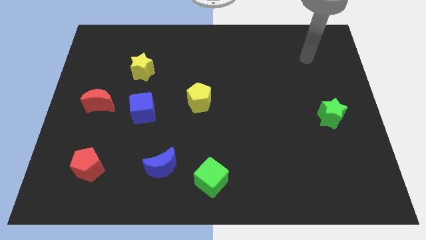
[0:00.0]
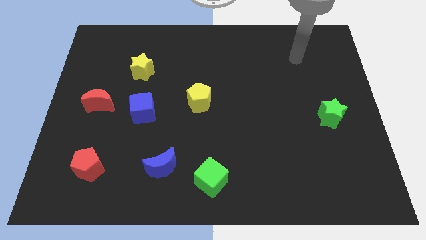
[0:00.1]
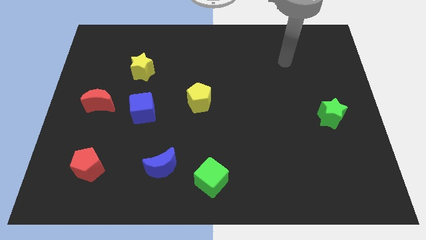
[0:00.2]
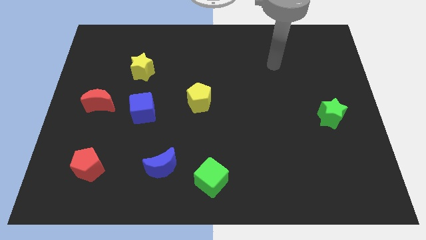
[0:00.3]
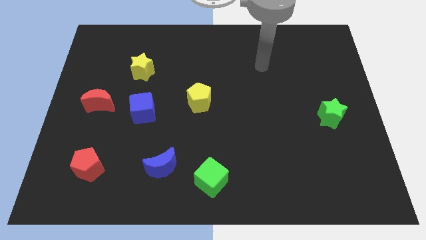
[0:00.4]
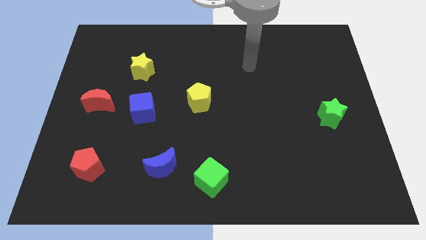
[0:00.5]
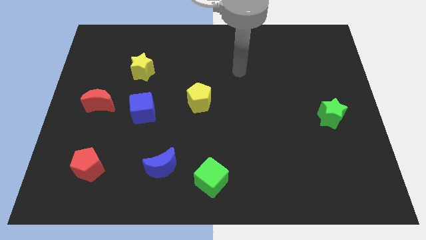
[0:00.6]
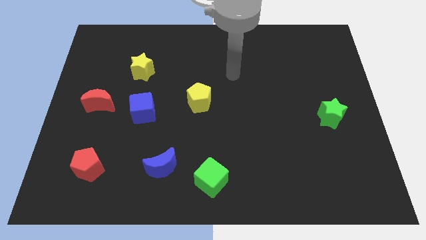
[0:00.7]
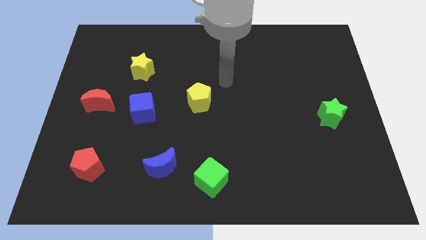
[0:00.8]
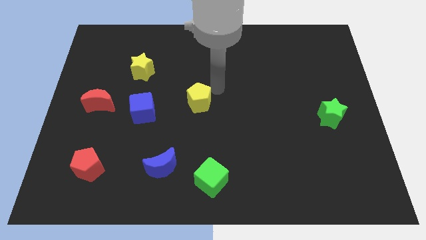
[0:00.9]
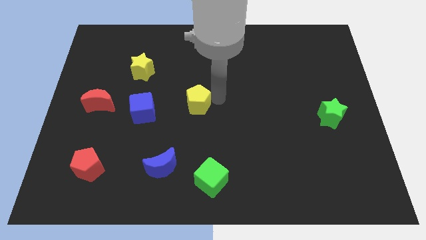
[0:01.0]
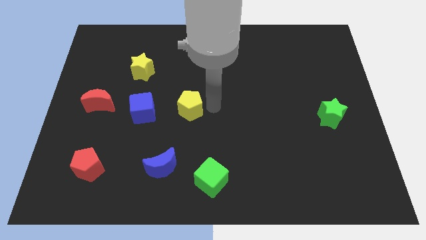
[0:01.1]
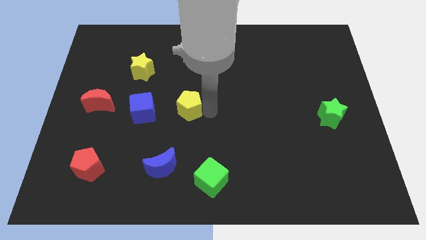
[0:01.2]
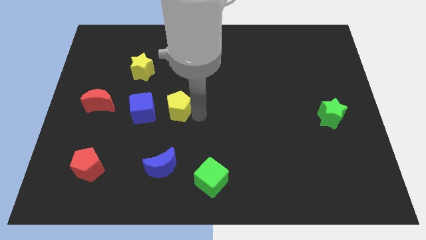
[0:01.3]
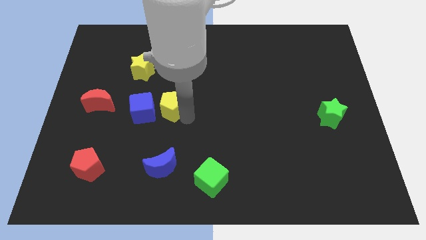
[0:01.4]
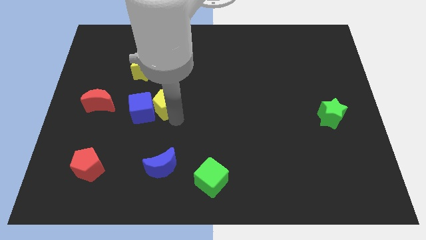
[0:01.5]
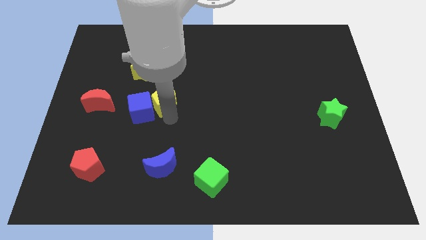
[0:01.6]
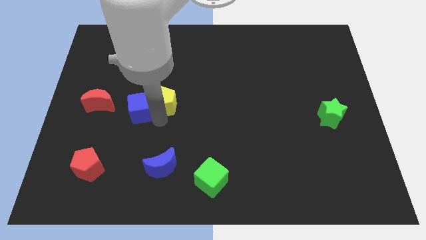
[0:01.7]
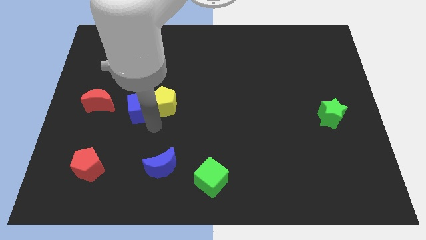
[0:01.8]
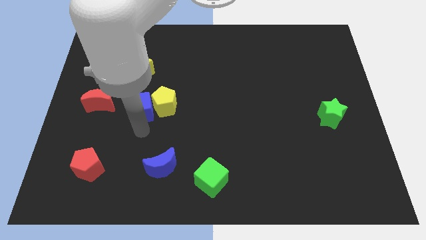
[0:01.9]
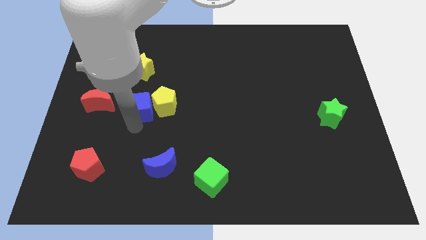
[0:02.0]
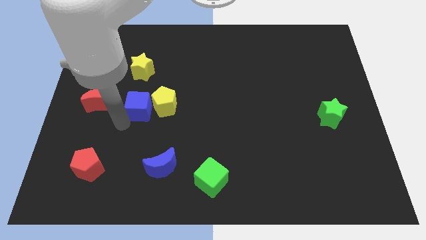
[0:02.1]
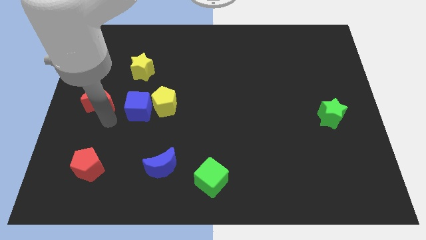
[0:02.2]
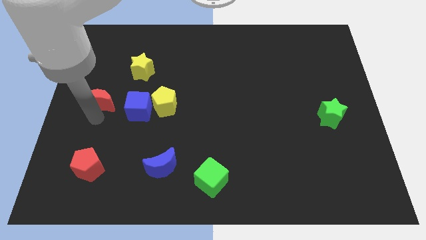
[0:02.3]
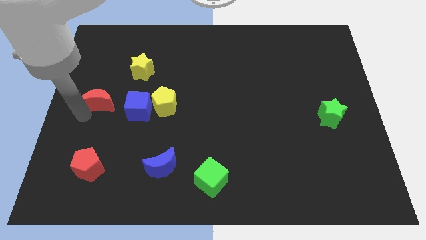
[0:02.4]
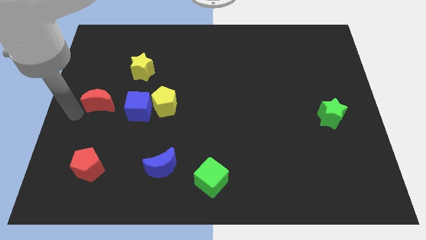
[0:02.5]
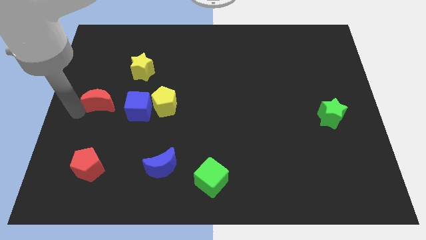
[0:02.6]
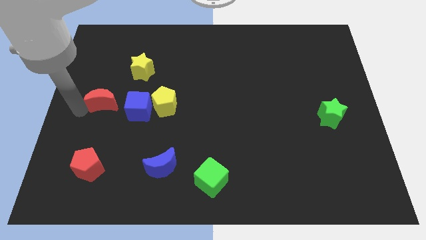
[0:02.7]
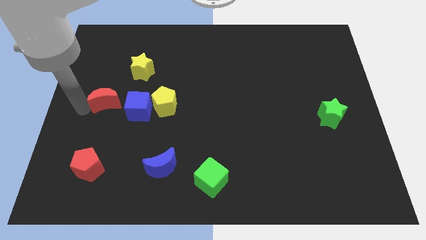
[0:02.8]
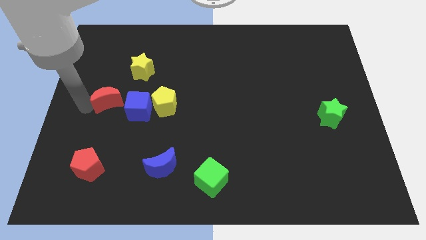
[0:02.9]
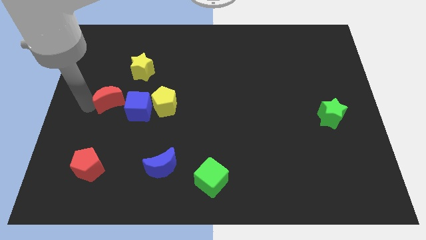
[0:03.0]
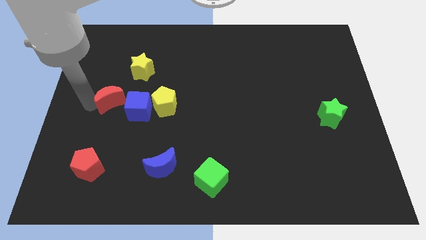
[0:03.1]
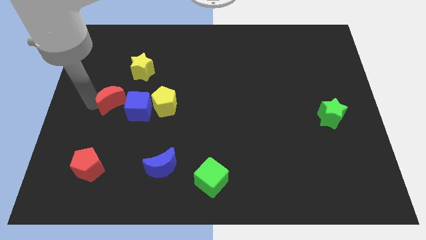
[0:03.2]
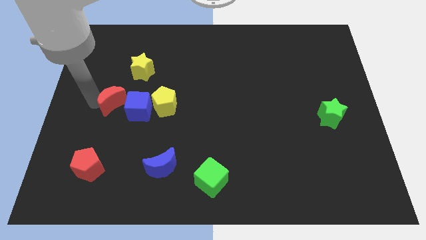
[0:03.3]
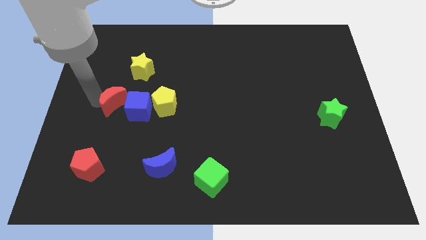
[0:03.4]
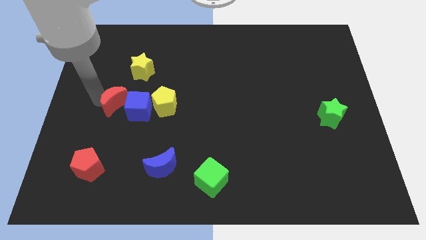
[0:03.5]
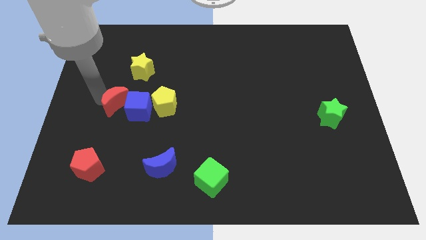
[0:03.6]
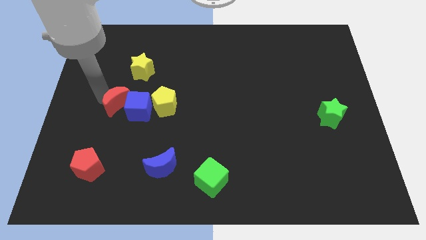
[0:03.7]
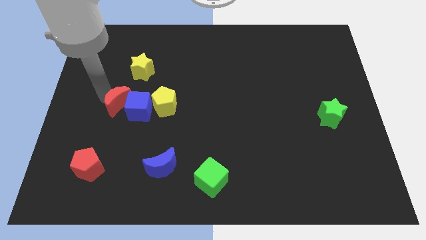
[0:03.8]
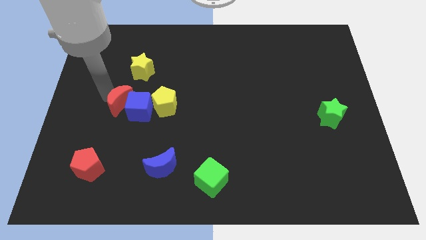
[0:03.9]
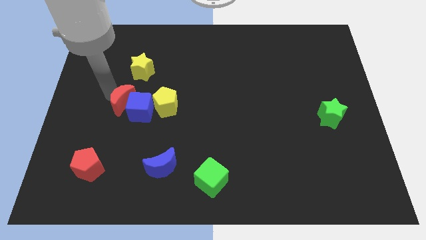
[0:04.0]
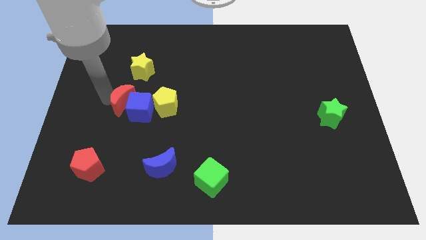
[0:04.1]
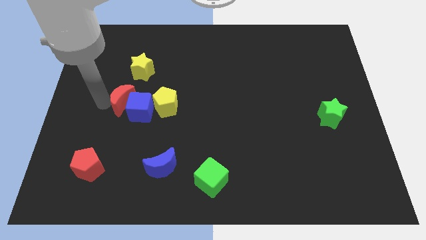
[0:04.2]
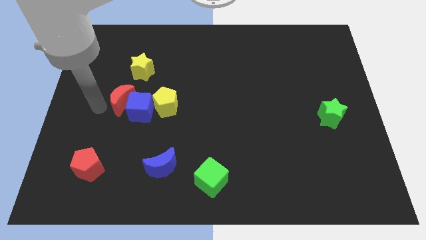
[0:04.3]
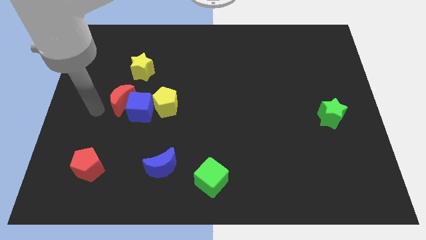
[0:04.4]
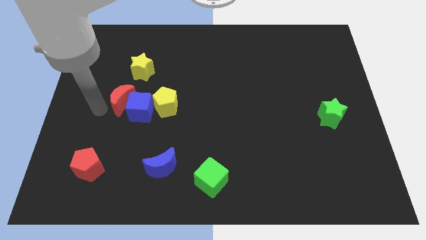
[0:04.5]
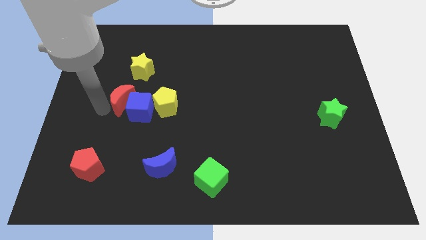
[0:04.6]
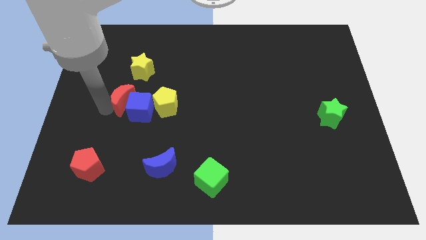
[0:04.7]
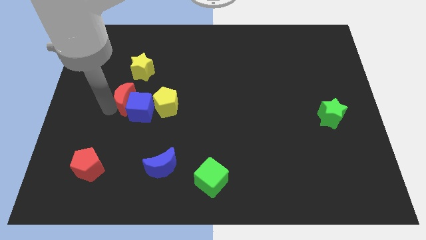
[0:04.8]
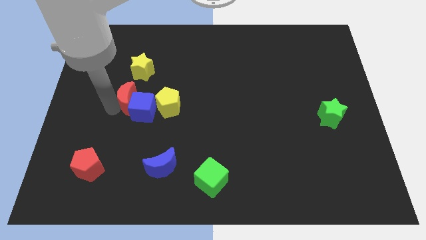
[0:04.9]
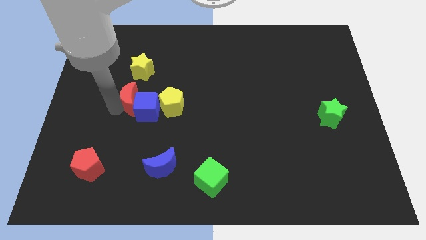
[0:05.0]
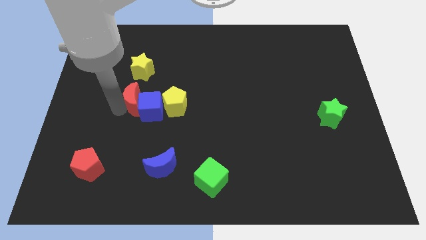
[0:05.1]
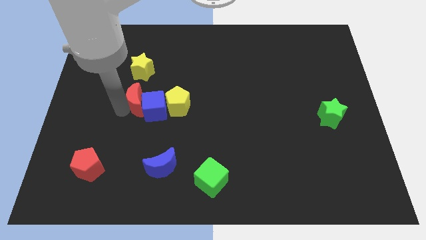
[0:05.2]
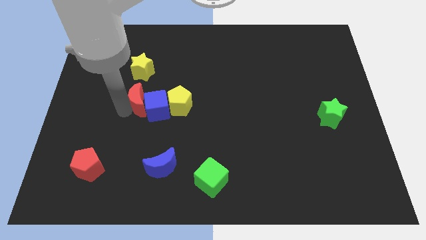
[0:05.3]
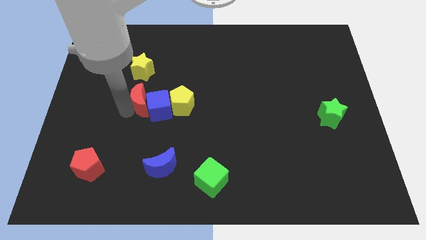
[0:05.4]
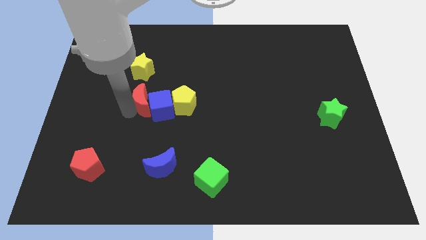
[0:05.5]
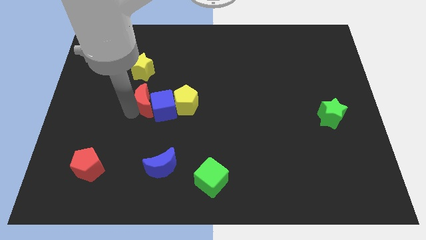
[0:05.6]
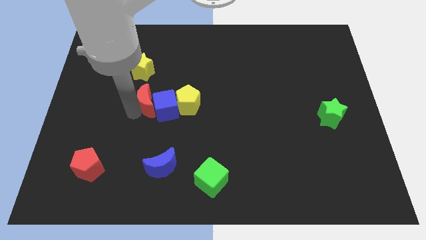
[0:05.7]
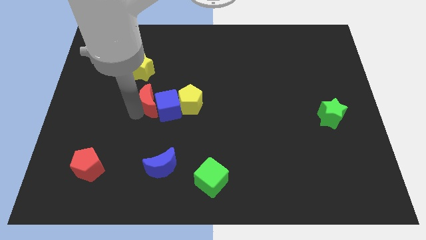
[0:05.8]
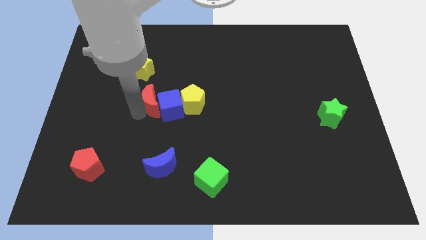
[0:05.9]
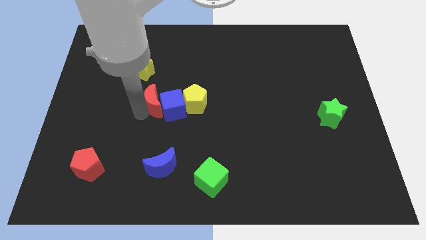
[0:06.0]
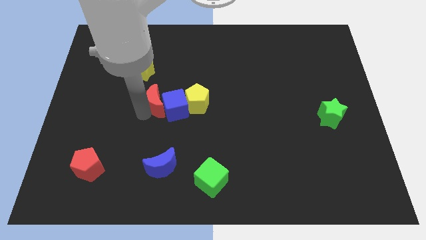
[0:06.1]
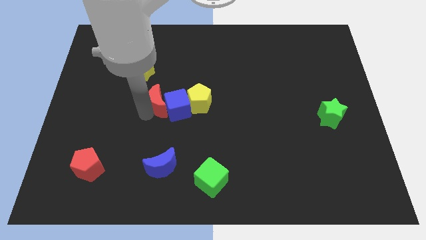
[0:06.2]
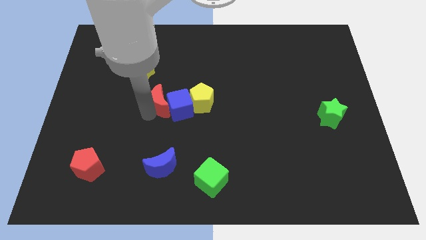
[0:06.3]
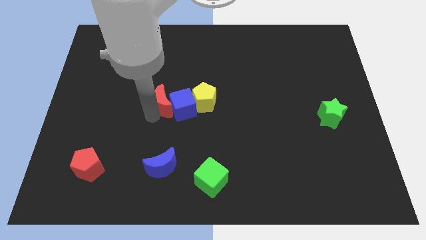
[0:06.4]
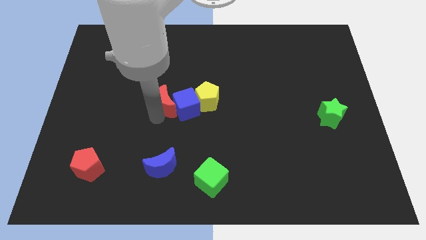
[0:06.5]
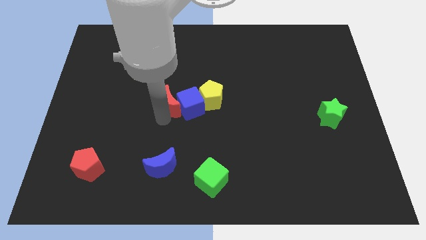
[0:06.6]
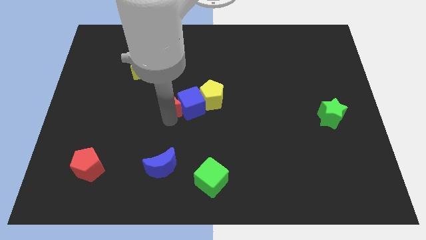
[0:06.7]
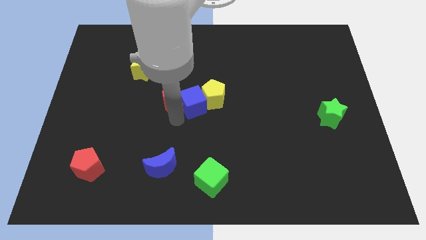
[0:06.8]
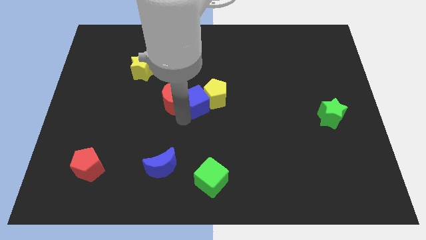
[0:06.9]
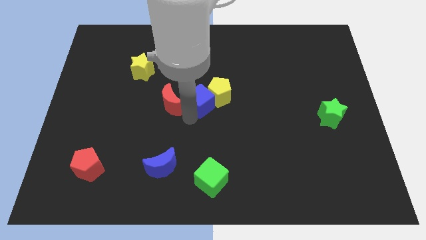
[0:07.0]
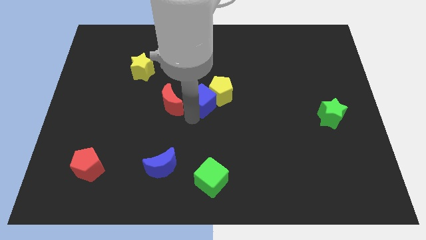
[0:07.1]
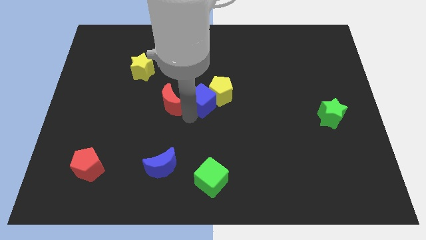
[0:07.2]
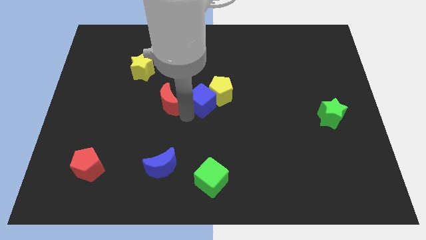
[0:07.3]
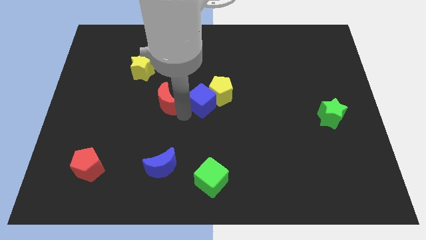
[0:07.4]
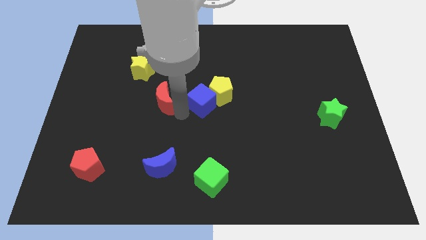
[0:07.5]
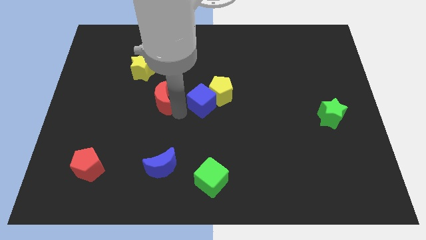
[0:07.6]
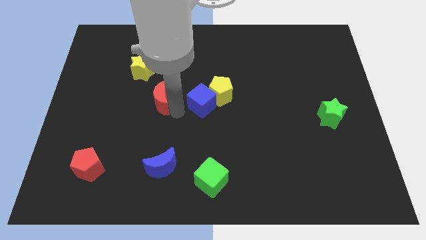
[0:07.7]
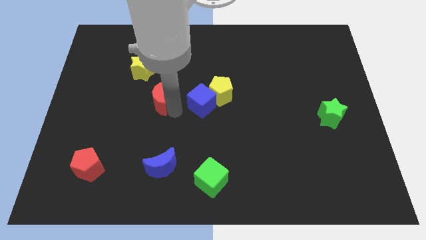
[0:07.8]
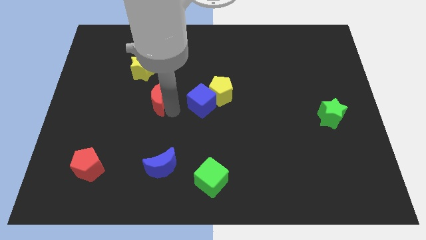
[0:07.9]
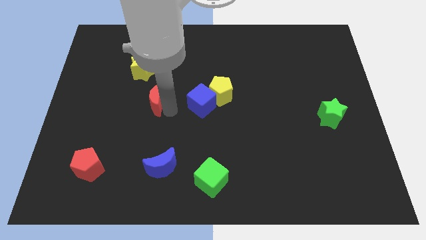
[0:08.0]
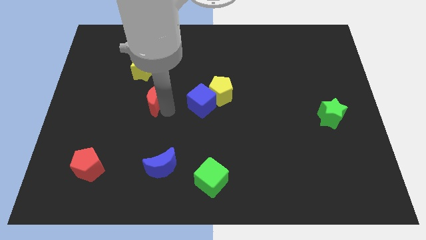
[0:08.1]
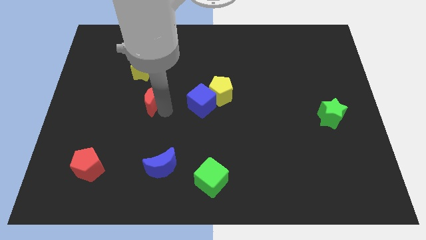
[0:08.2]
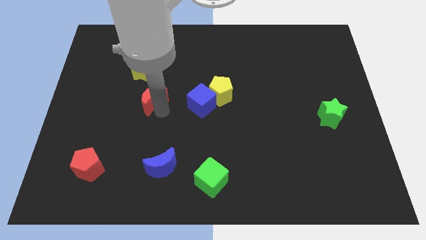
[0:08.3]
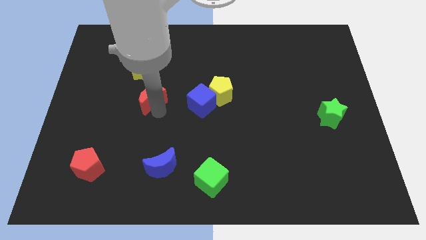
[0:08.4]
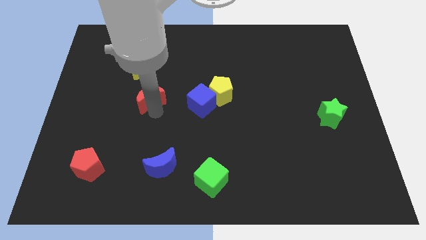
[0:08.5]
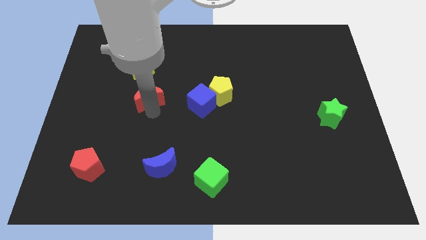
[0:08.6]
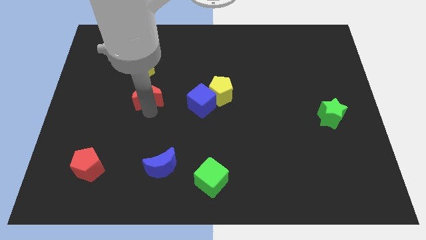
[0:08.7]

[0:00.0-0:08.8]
slightly move the red moon upwards and right diagonally
